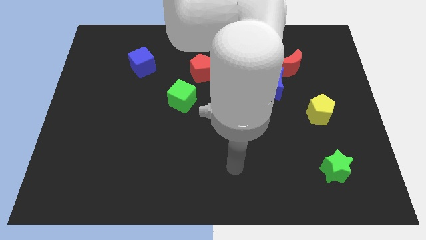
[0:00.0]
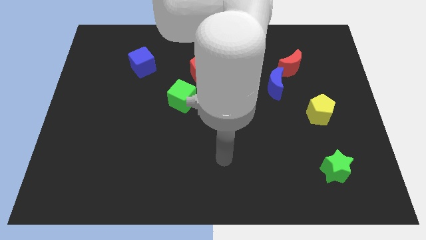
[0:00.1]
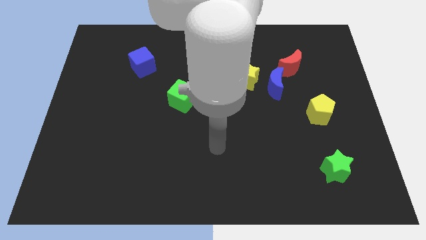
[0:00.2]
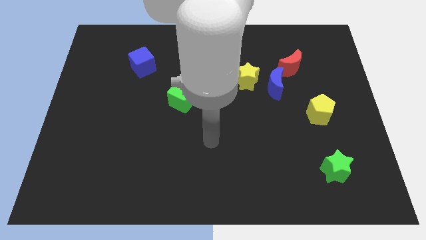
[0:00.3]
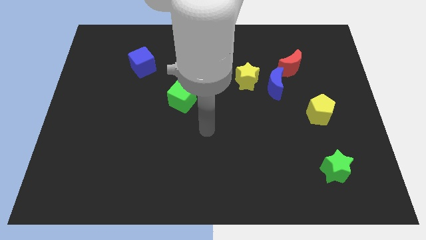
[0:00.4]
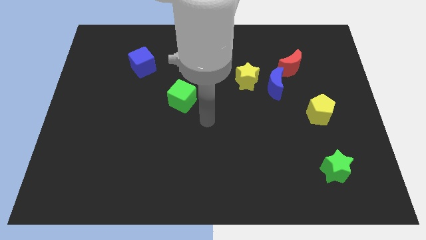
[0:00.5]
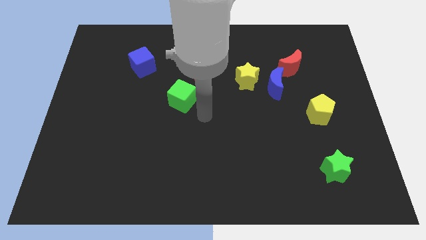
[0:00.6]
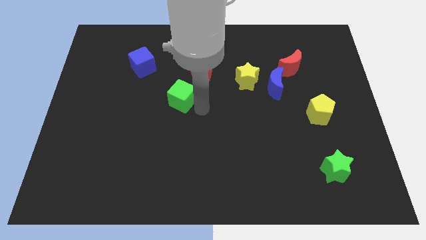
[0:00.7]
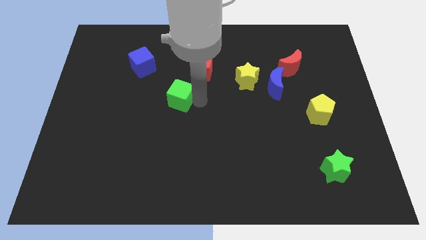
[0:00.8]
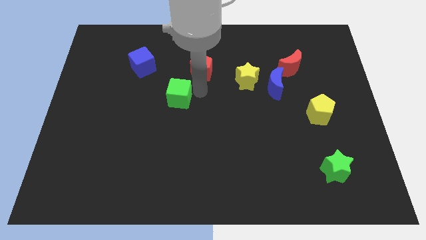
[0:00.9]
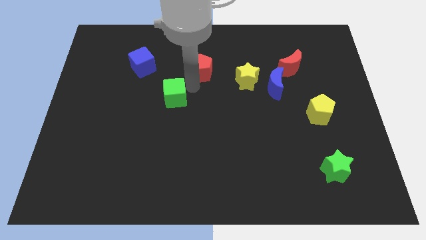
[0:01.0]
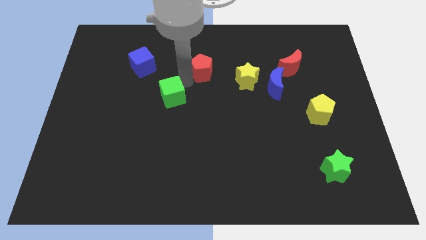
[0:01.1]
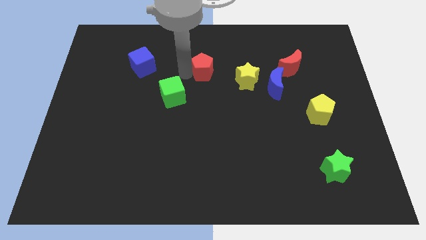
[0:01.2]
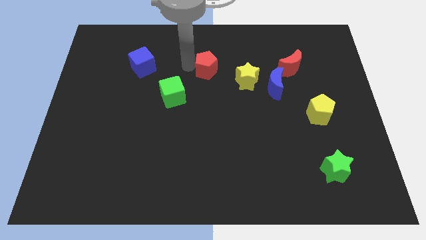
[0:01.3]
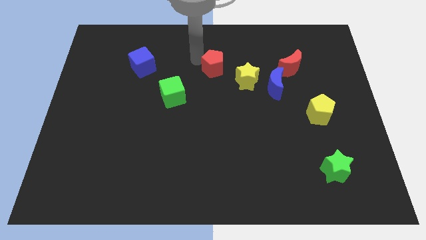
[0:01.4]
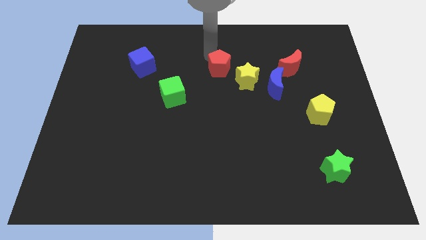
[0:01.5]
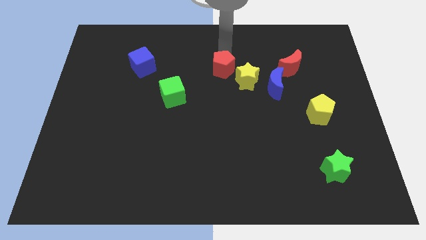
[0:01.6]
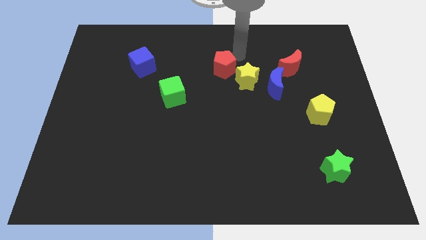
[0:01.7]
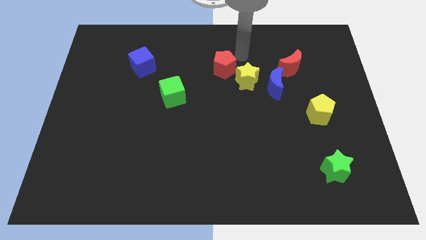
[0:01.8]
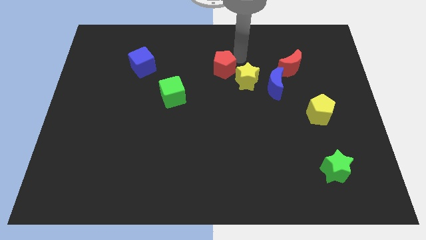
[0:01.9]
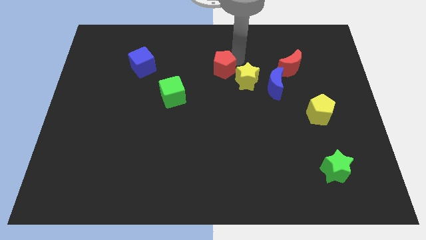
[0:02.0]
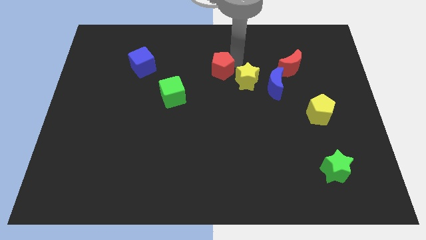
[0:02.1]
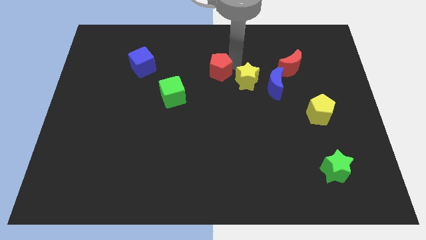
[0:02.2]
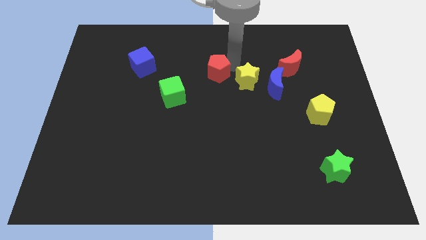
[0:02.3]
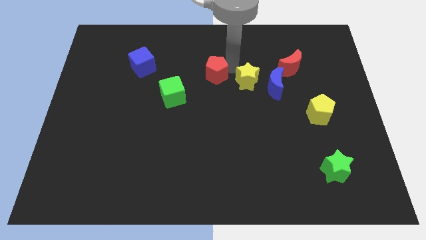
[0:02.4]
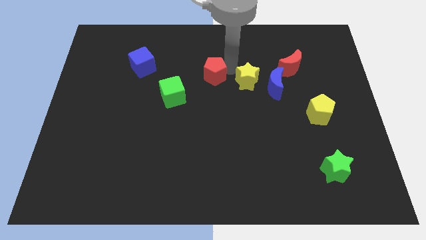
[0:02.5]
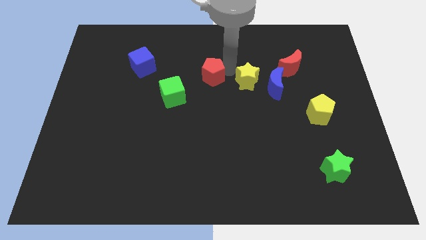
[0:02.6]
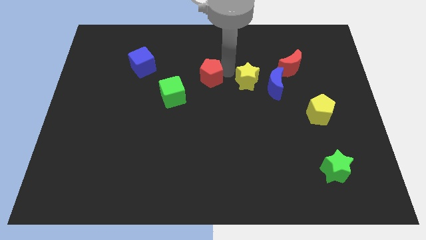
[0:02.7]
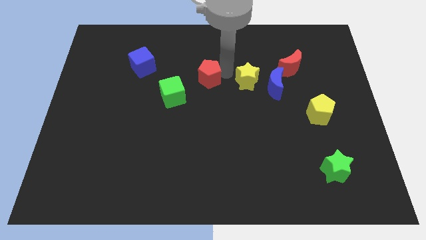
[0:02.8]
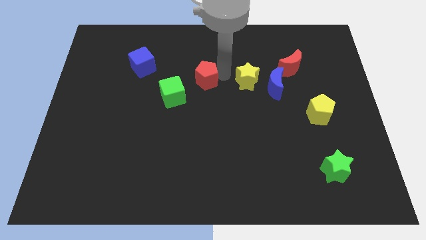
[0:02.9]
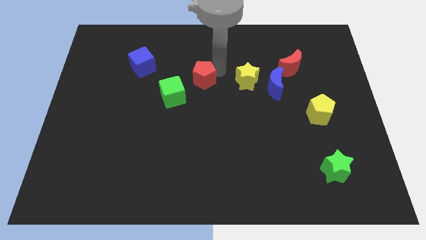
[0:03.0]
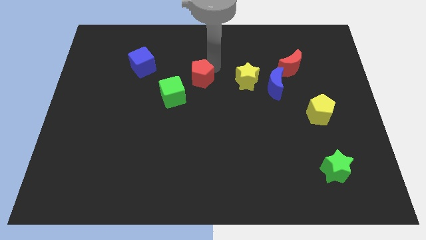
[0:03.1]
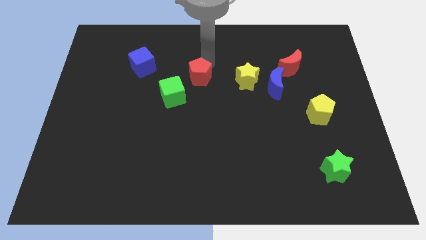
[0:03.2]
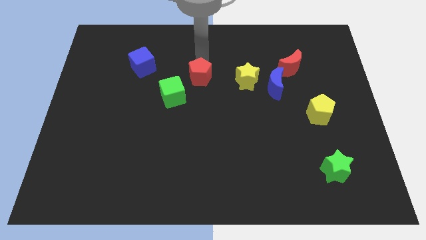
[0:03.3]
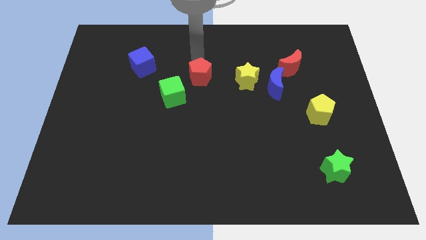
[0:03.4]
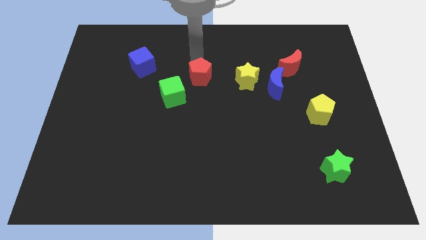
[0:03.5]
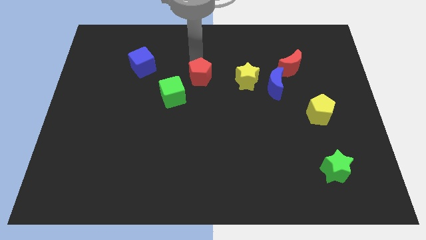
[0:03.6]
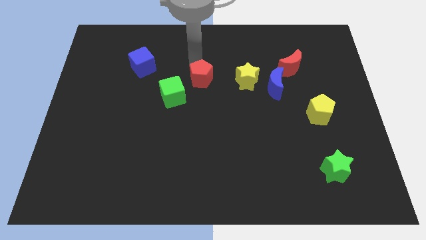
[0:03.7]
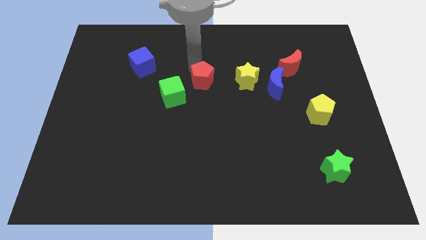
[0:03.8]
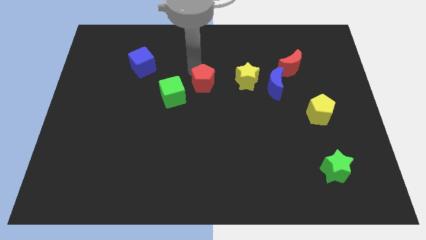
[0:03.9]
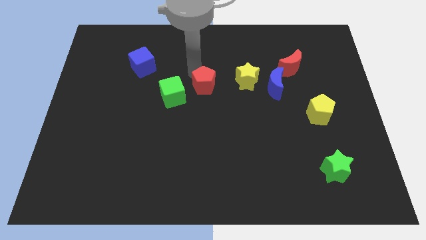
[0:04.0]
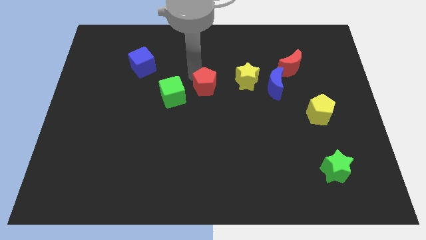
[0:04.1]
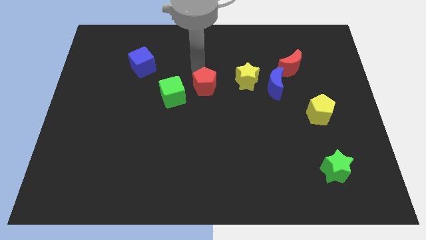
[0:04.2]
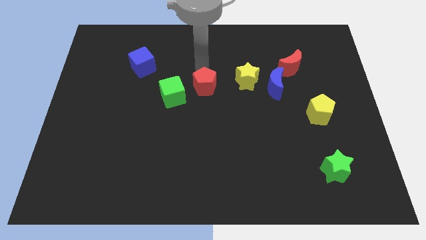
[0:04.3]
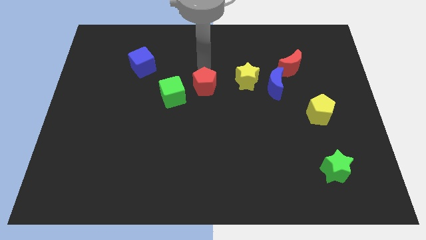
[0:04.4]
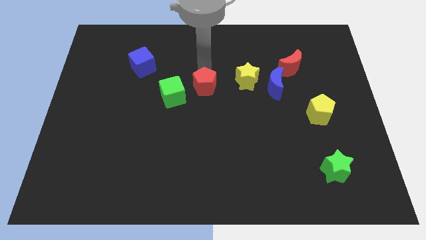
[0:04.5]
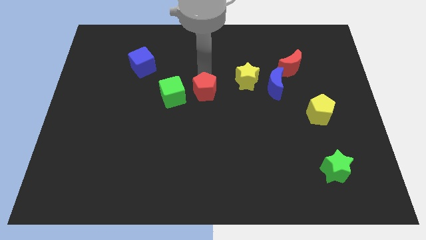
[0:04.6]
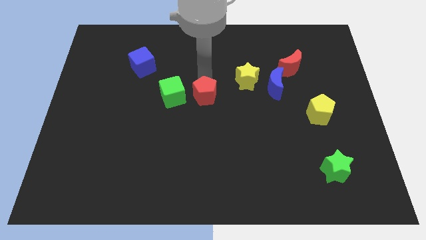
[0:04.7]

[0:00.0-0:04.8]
move the red pentagon slightly down

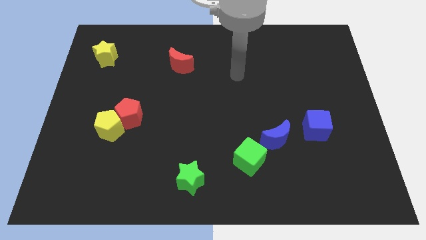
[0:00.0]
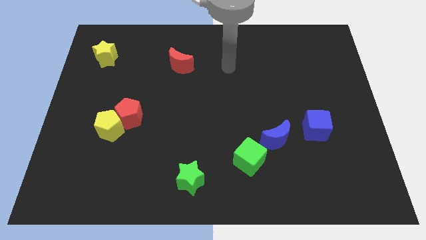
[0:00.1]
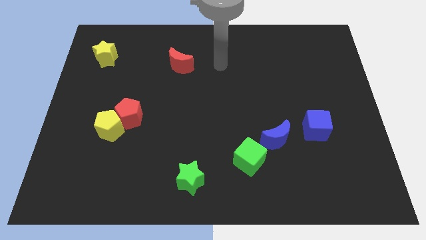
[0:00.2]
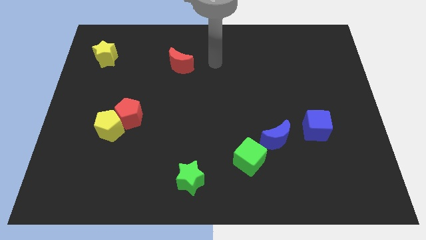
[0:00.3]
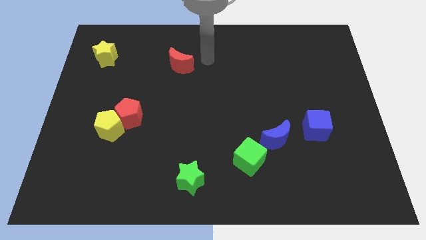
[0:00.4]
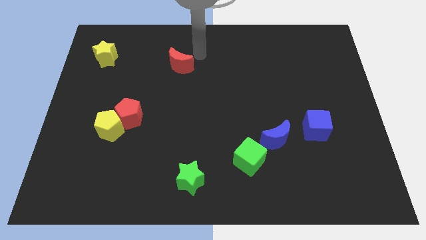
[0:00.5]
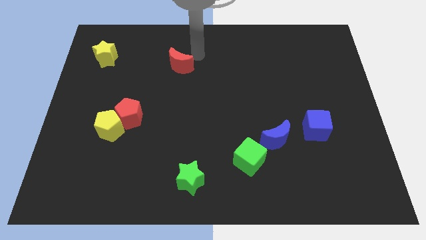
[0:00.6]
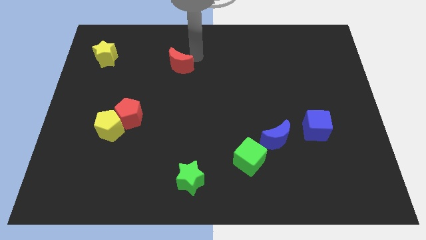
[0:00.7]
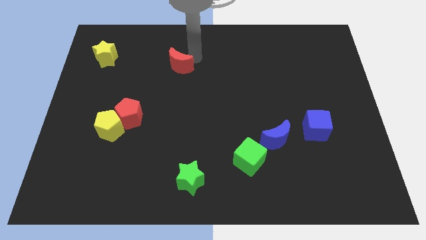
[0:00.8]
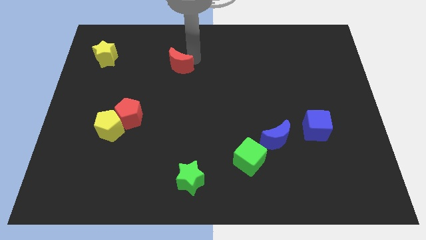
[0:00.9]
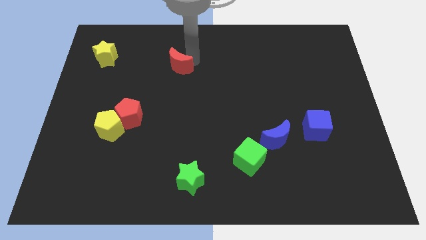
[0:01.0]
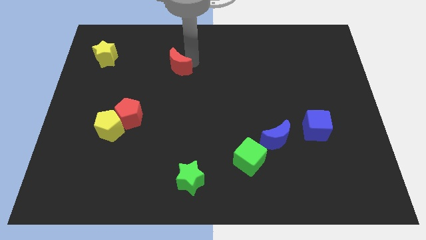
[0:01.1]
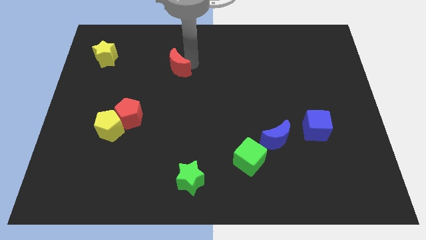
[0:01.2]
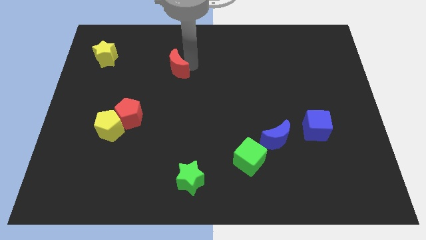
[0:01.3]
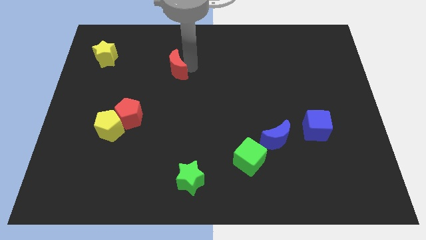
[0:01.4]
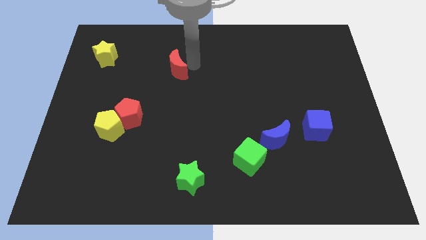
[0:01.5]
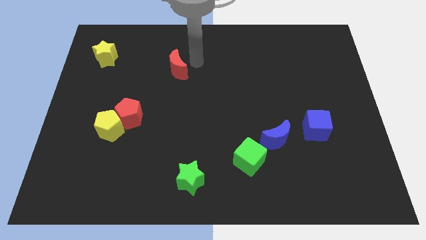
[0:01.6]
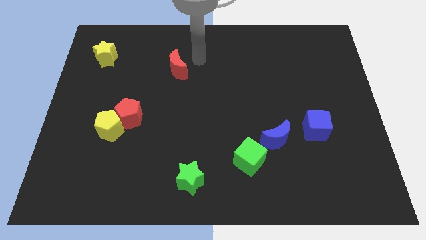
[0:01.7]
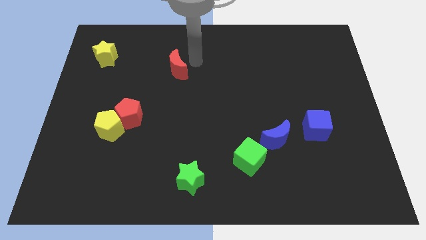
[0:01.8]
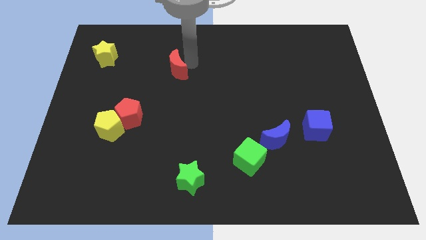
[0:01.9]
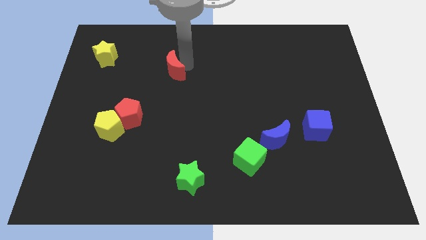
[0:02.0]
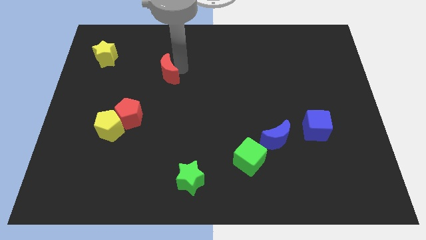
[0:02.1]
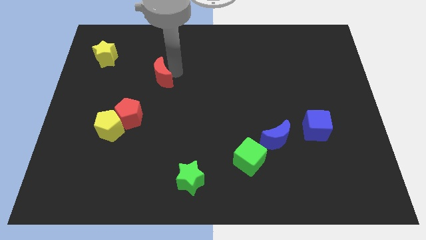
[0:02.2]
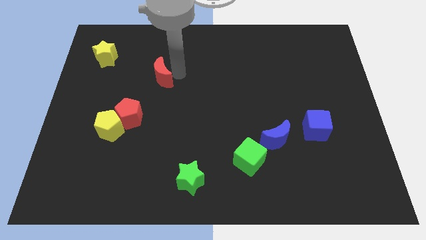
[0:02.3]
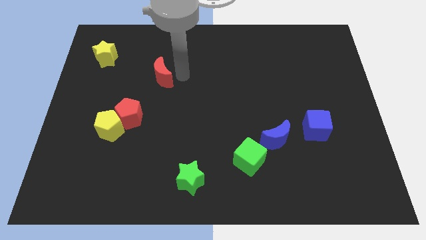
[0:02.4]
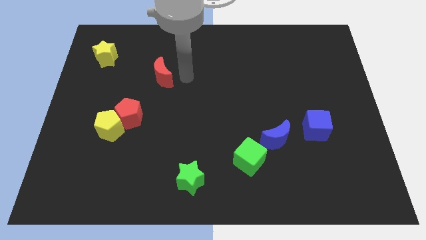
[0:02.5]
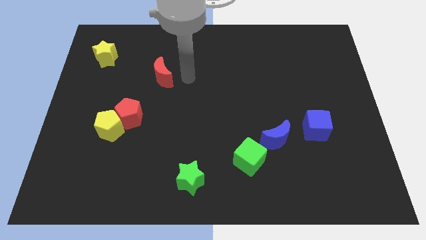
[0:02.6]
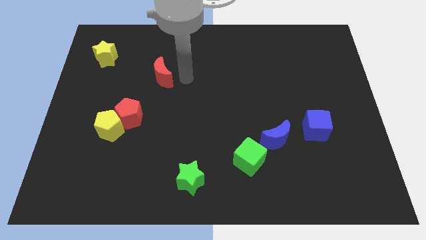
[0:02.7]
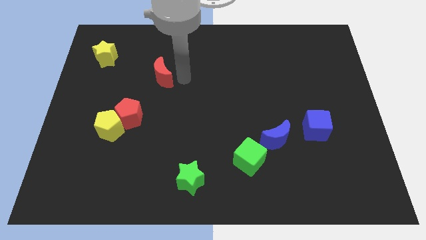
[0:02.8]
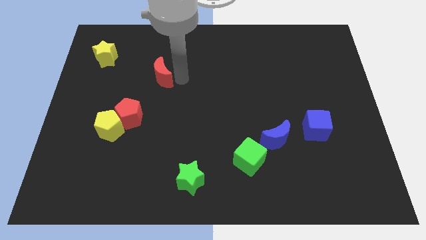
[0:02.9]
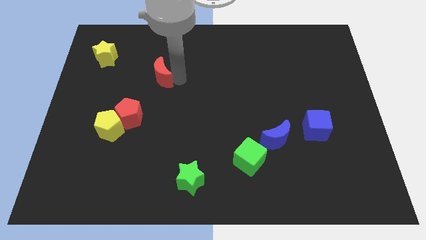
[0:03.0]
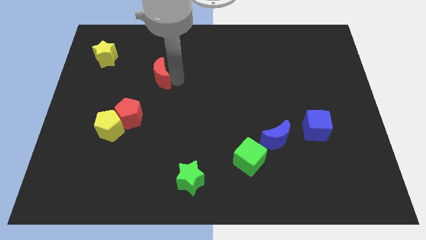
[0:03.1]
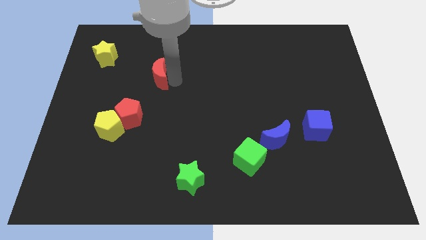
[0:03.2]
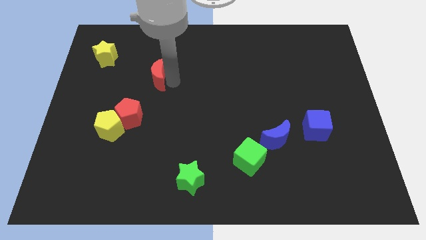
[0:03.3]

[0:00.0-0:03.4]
push the red moon diagonally down and to the left a little
